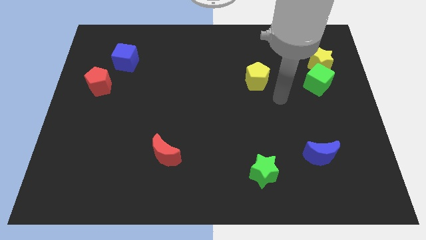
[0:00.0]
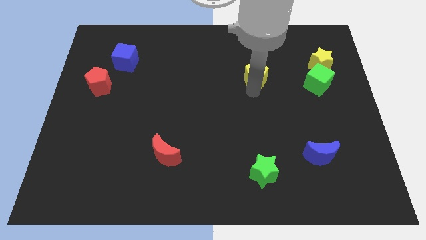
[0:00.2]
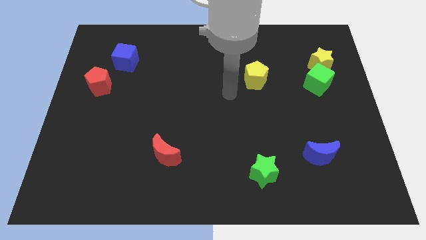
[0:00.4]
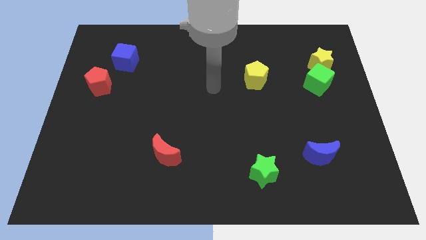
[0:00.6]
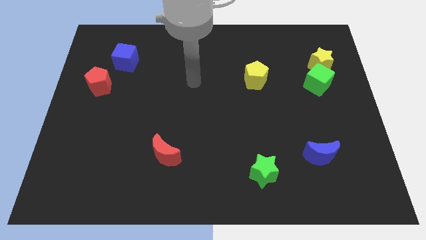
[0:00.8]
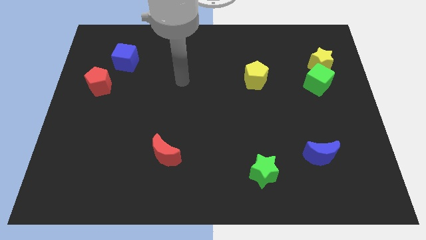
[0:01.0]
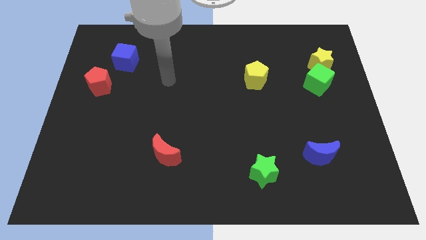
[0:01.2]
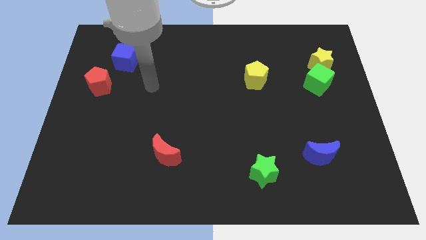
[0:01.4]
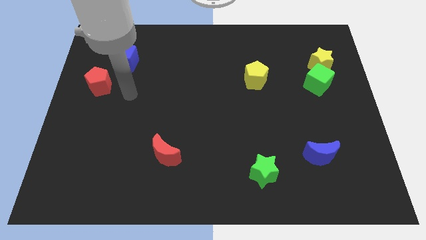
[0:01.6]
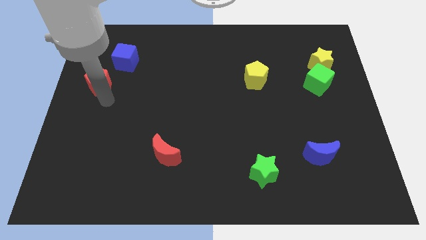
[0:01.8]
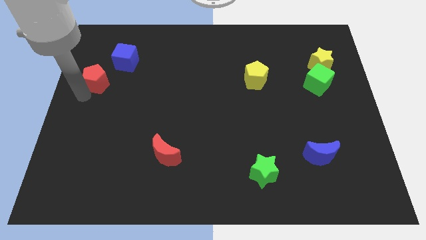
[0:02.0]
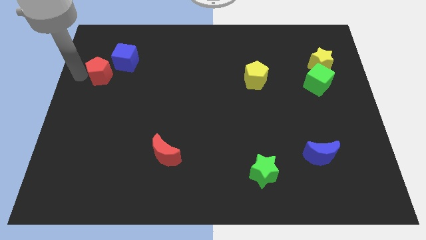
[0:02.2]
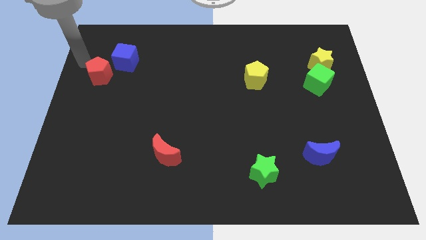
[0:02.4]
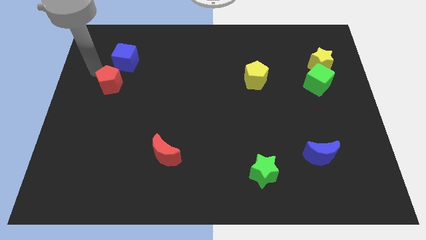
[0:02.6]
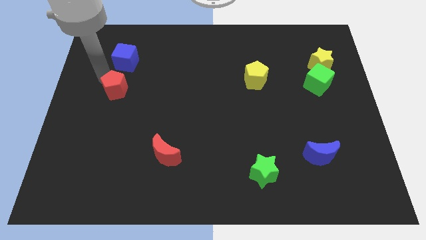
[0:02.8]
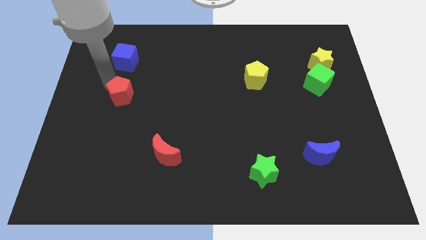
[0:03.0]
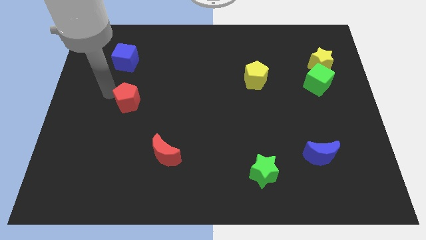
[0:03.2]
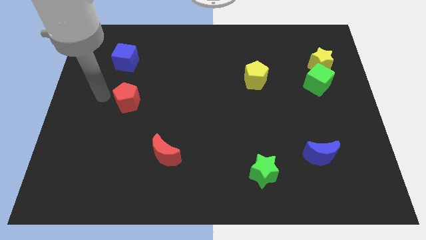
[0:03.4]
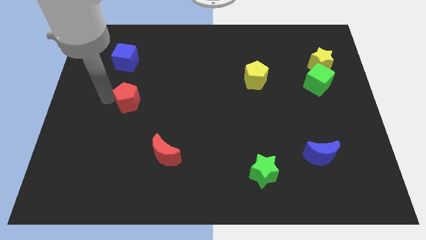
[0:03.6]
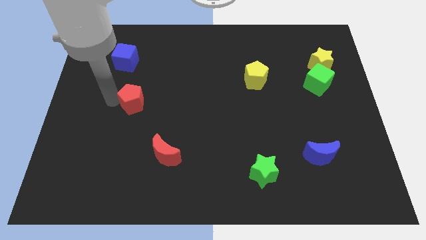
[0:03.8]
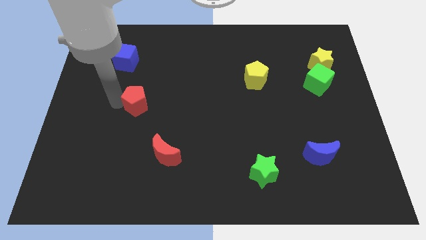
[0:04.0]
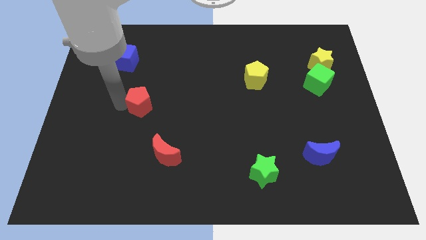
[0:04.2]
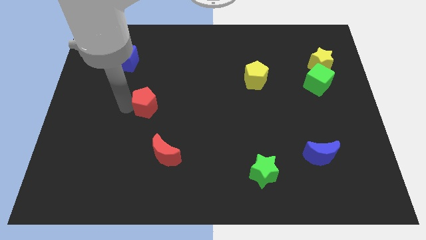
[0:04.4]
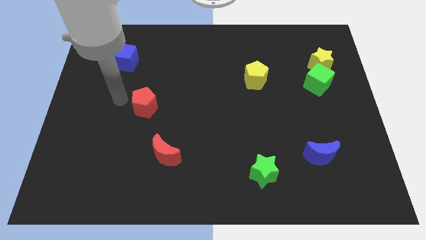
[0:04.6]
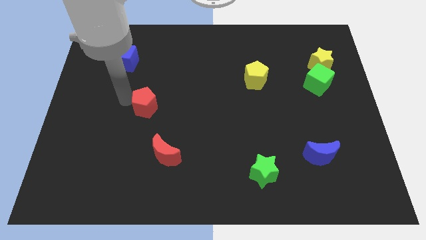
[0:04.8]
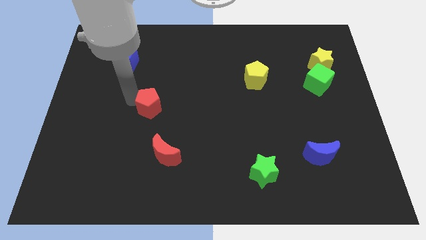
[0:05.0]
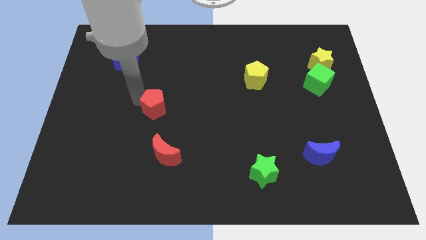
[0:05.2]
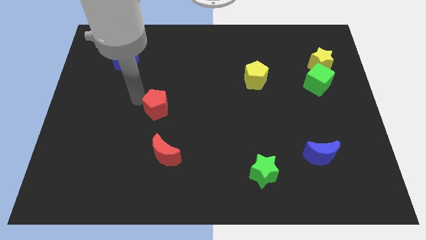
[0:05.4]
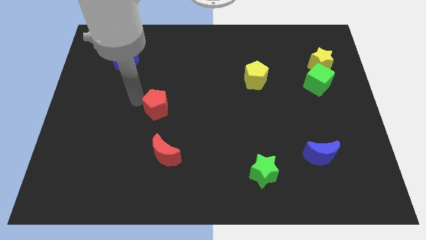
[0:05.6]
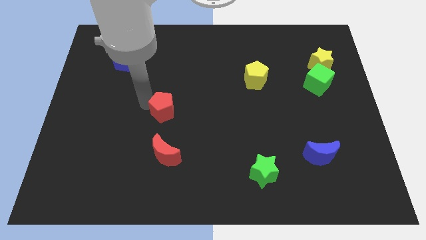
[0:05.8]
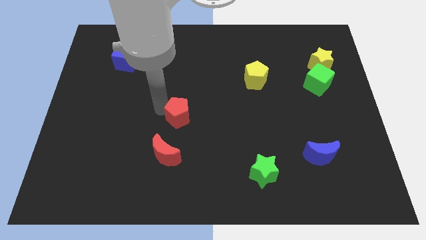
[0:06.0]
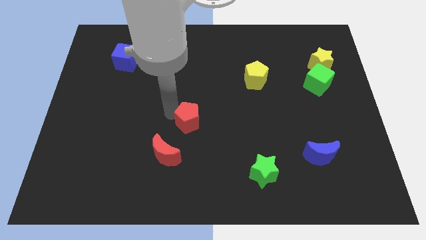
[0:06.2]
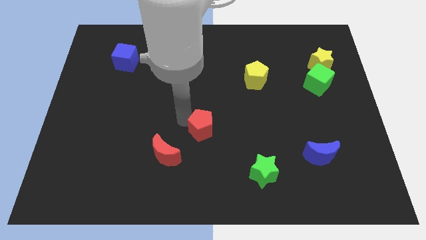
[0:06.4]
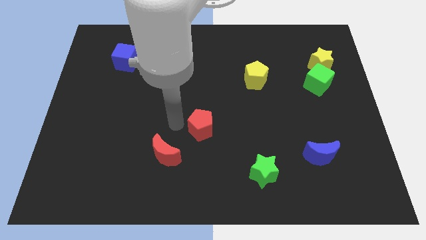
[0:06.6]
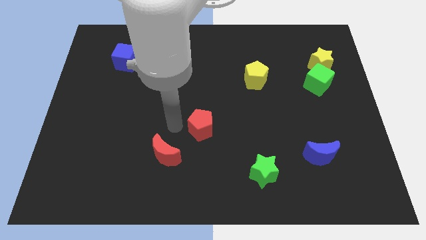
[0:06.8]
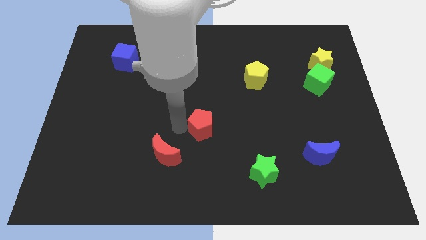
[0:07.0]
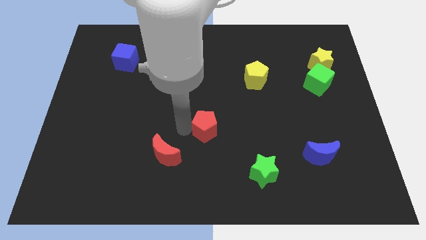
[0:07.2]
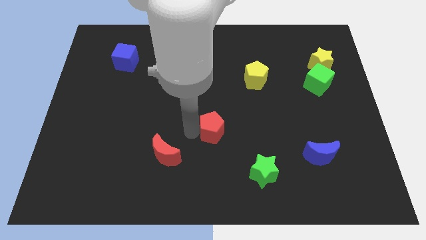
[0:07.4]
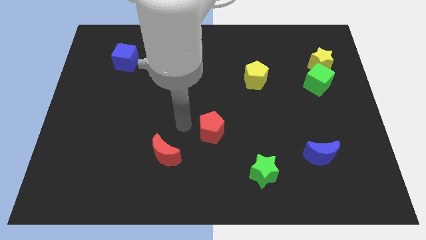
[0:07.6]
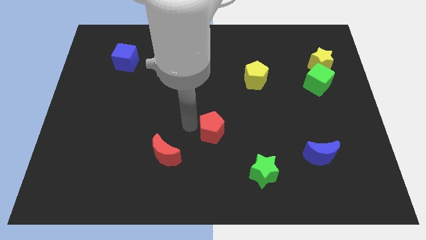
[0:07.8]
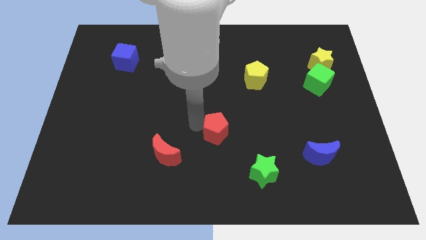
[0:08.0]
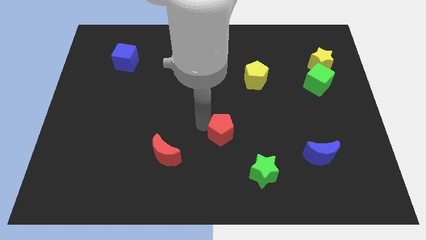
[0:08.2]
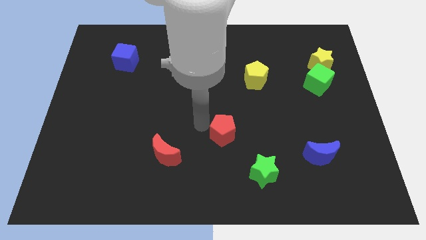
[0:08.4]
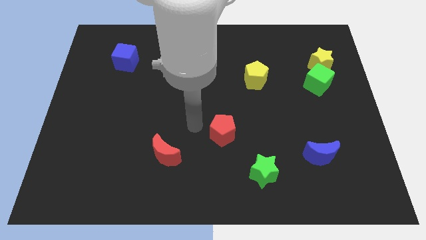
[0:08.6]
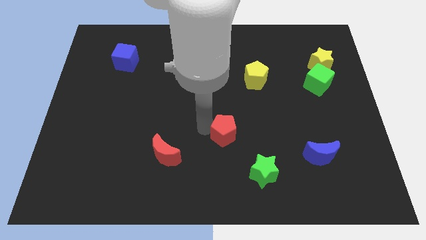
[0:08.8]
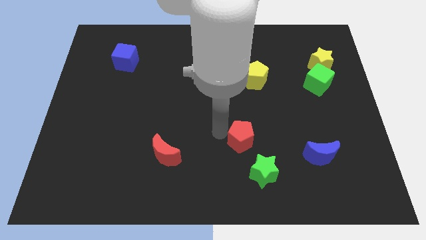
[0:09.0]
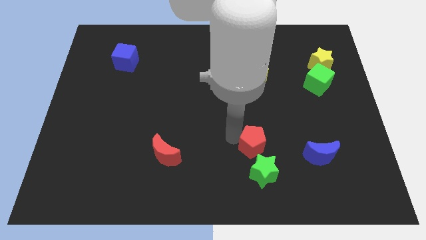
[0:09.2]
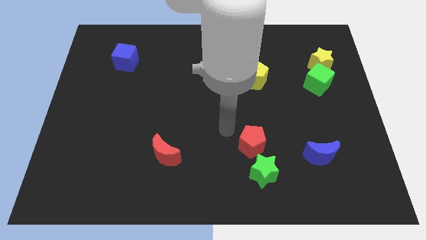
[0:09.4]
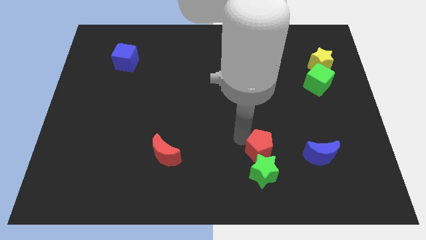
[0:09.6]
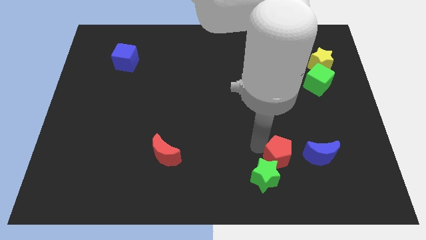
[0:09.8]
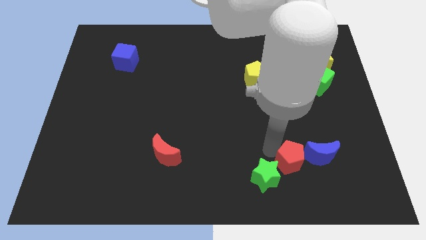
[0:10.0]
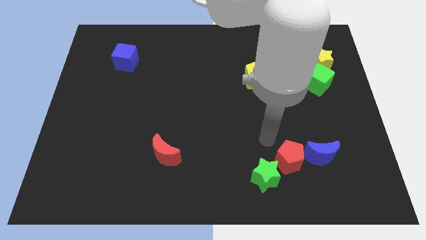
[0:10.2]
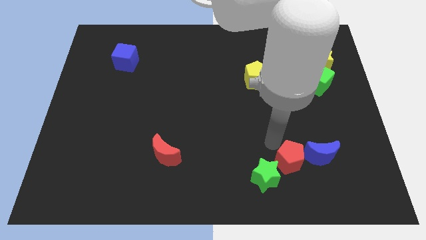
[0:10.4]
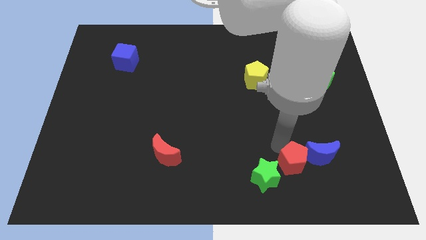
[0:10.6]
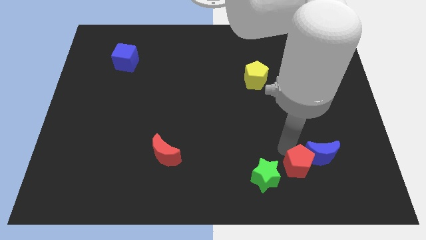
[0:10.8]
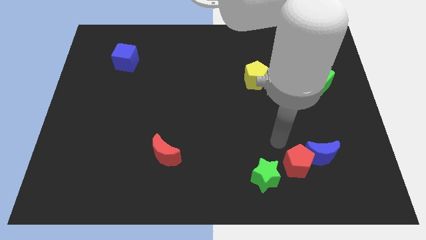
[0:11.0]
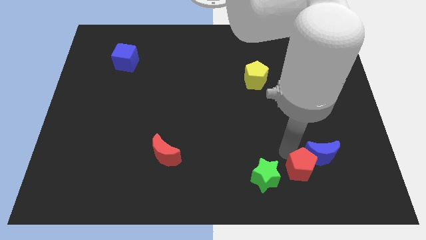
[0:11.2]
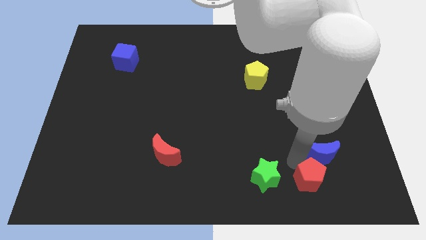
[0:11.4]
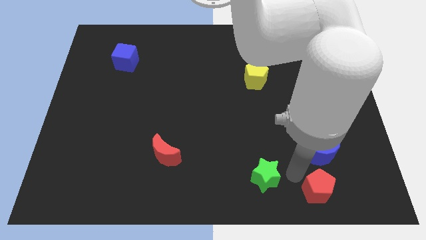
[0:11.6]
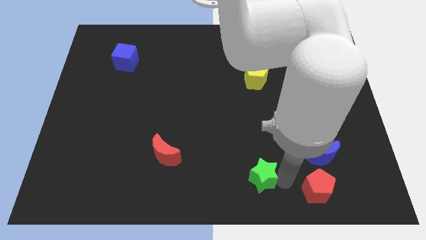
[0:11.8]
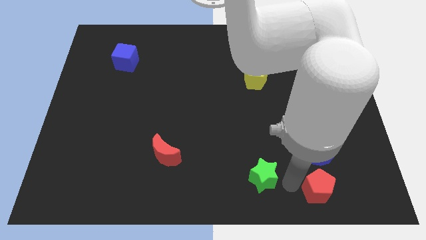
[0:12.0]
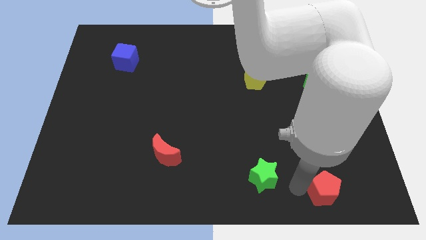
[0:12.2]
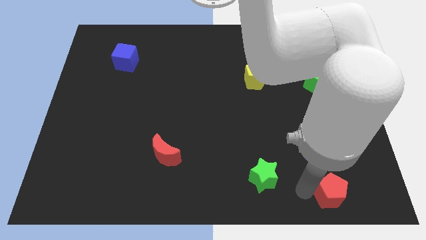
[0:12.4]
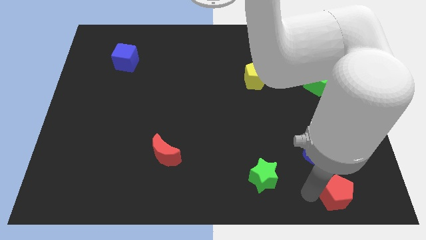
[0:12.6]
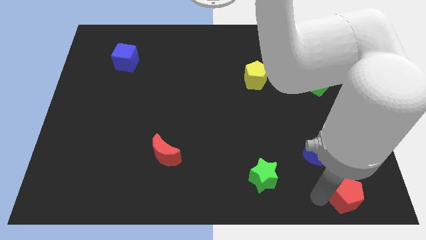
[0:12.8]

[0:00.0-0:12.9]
move the red pentagon to the bottom right

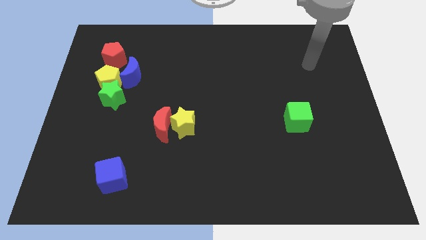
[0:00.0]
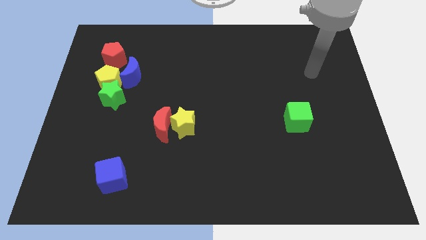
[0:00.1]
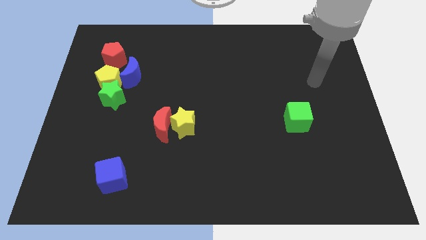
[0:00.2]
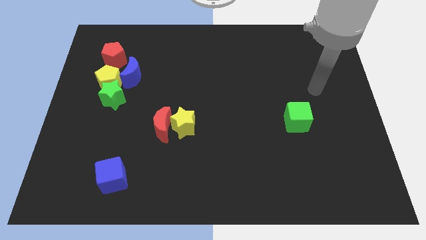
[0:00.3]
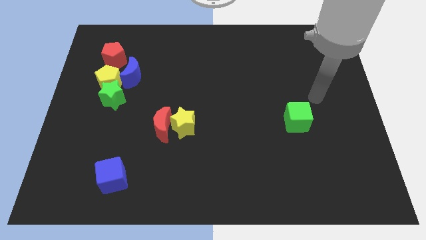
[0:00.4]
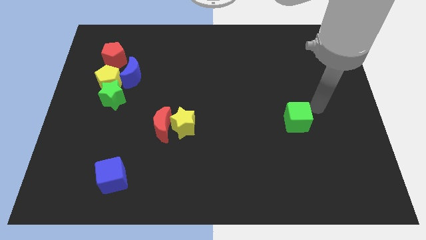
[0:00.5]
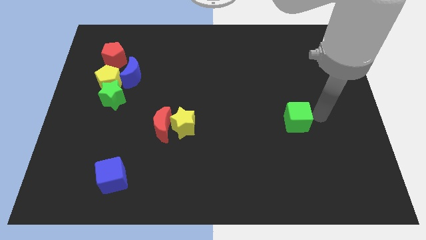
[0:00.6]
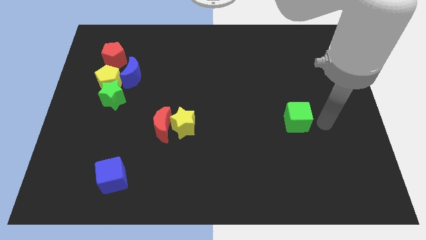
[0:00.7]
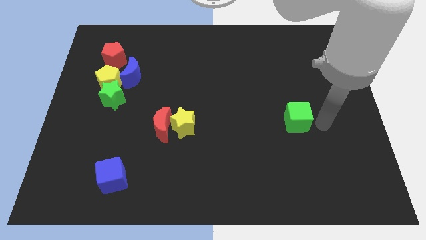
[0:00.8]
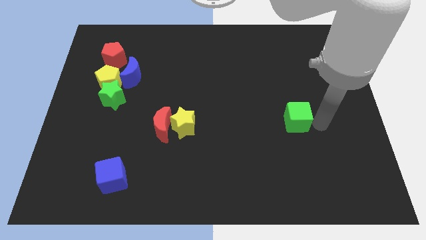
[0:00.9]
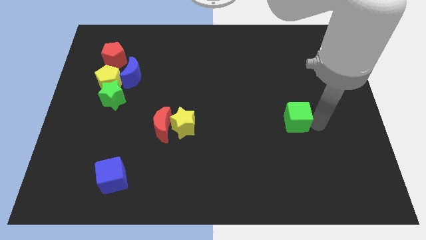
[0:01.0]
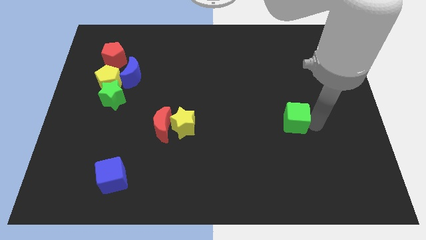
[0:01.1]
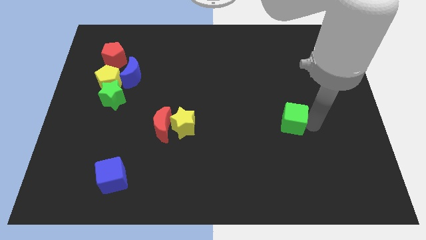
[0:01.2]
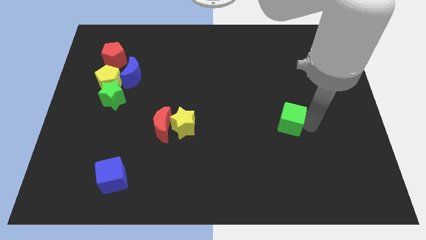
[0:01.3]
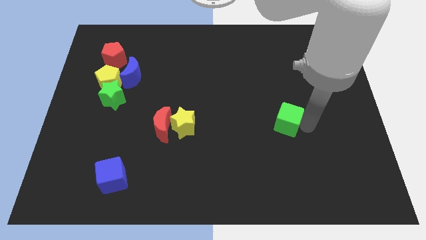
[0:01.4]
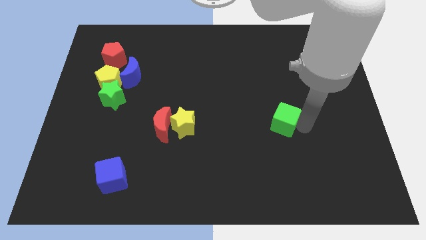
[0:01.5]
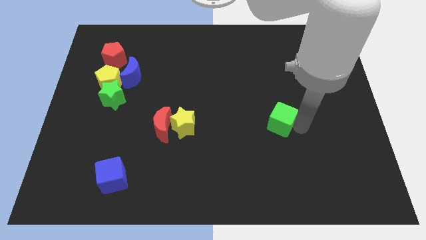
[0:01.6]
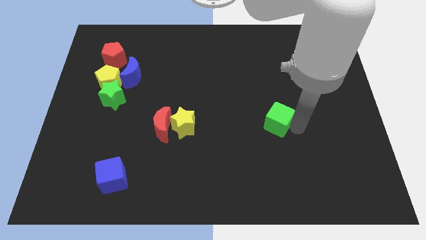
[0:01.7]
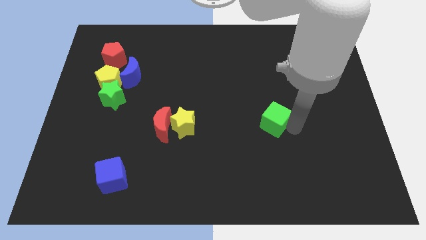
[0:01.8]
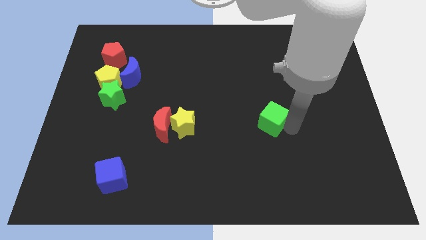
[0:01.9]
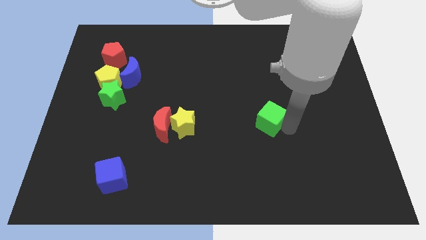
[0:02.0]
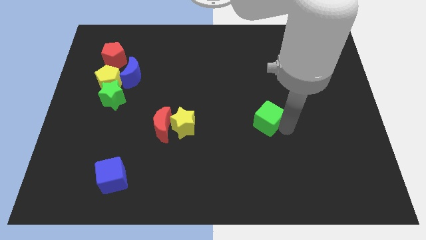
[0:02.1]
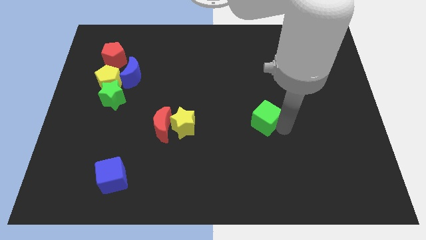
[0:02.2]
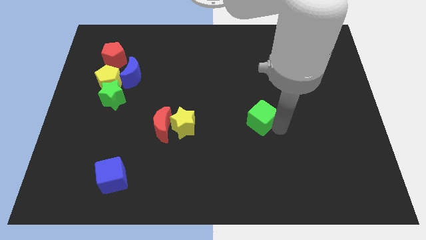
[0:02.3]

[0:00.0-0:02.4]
move the green cube to the middle of the board
